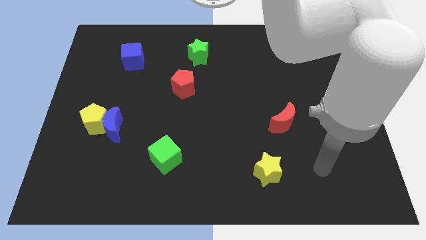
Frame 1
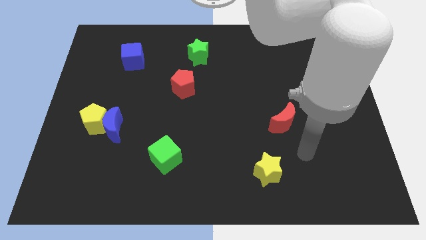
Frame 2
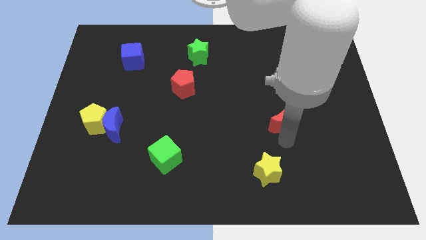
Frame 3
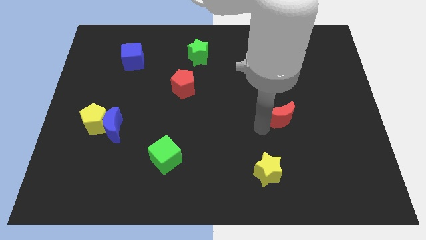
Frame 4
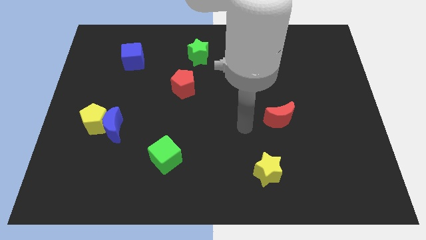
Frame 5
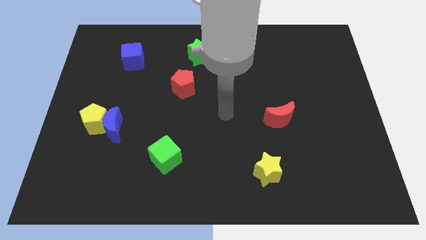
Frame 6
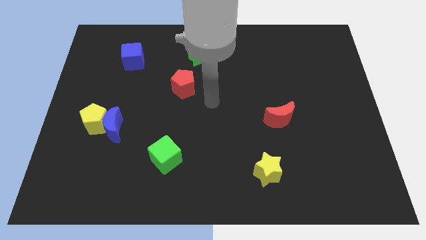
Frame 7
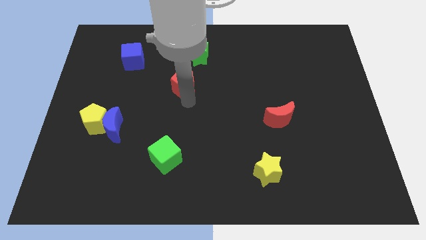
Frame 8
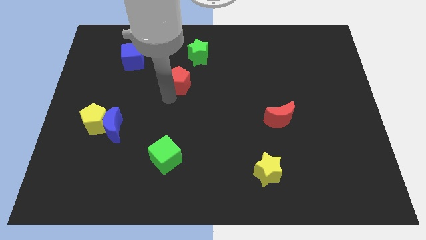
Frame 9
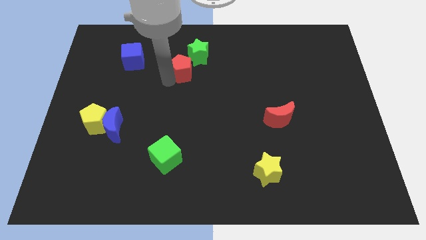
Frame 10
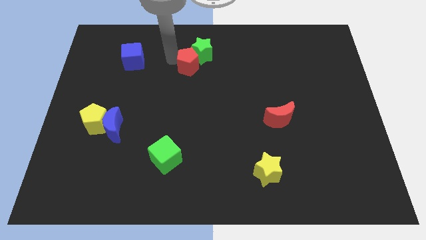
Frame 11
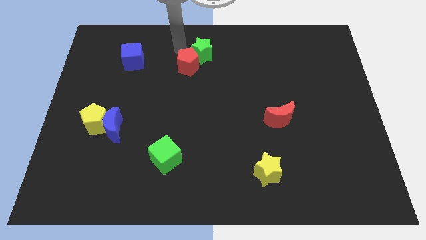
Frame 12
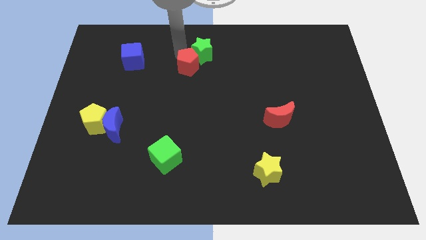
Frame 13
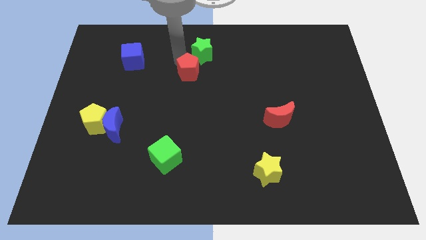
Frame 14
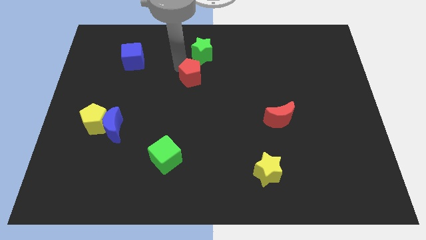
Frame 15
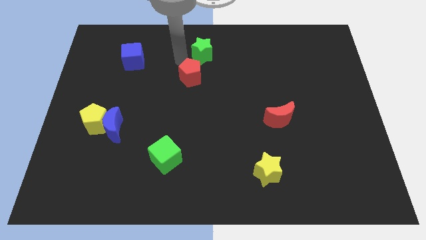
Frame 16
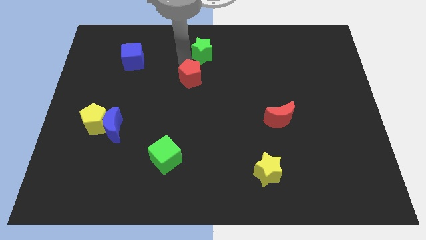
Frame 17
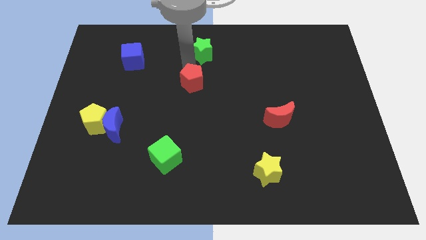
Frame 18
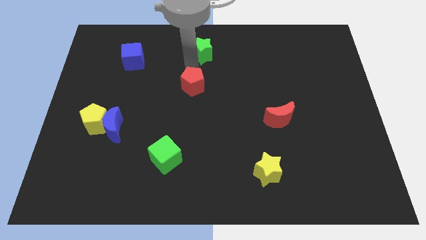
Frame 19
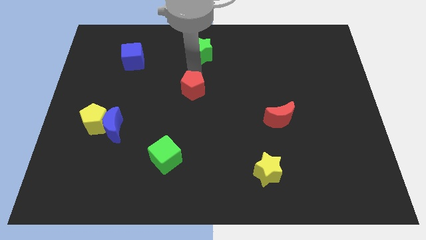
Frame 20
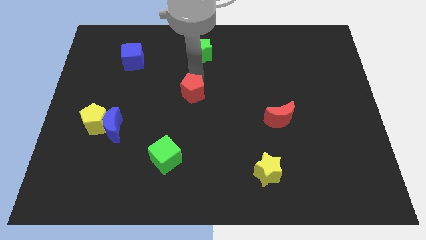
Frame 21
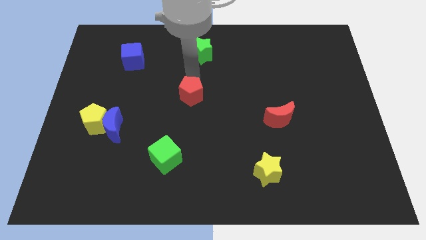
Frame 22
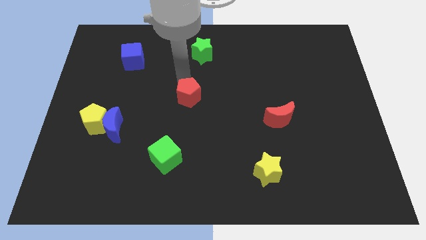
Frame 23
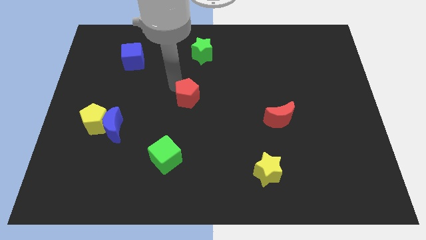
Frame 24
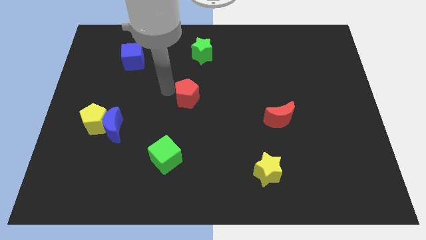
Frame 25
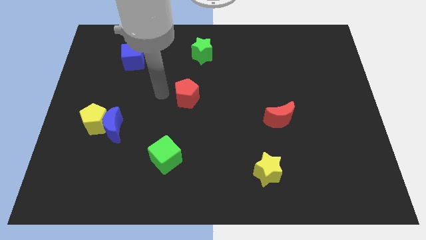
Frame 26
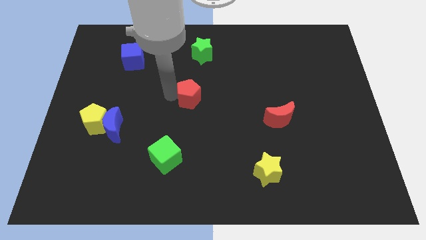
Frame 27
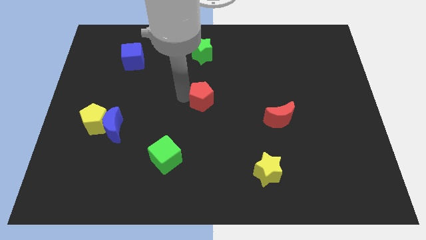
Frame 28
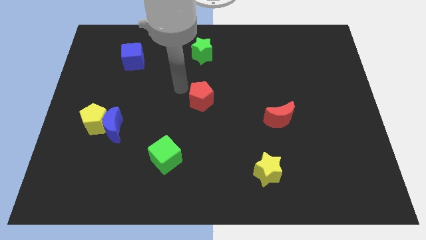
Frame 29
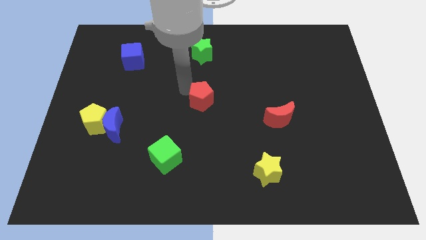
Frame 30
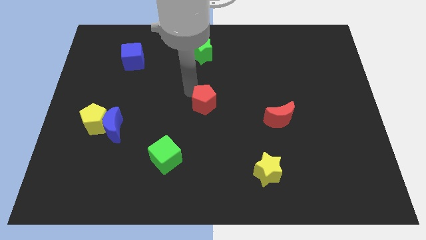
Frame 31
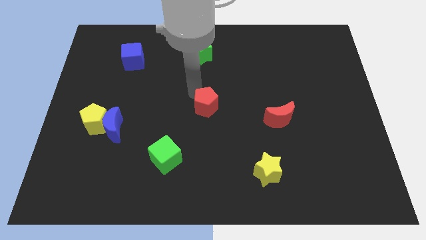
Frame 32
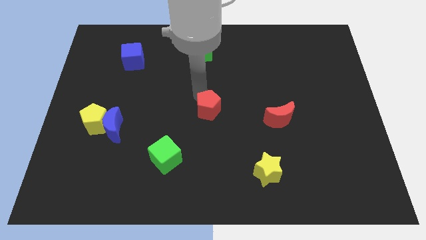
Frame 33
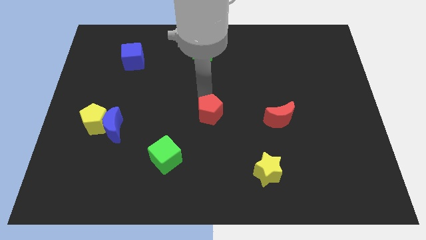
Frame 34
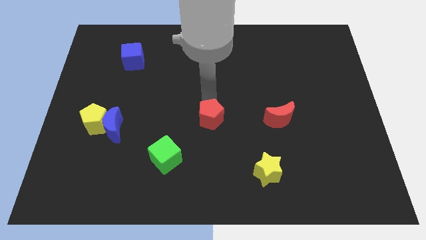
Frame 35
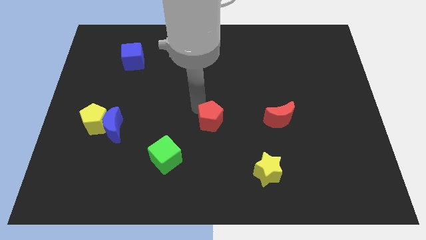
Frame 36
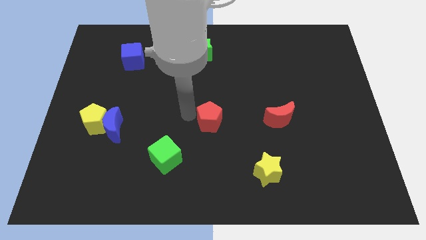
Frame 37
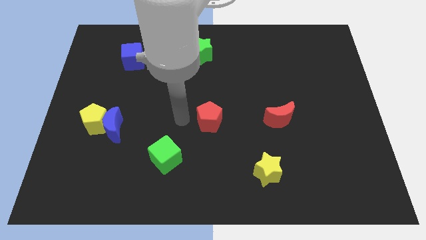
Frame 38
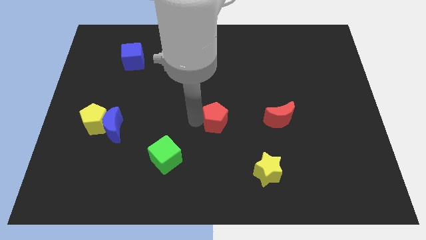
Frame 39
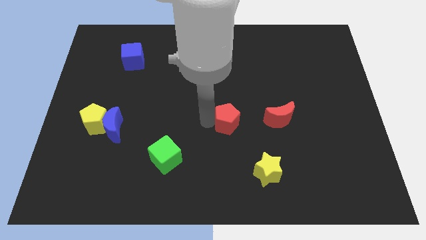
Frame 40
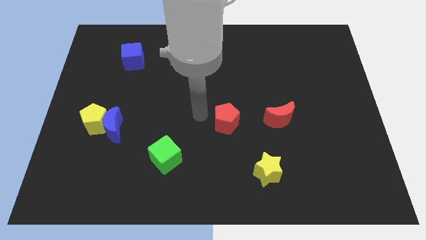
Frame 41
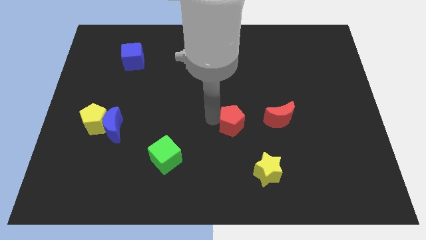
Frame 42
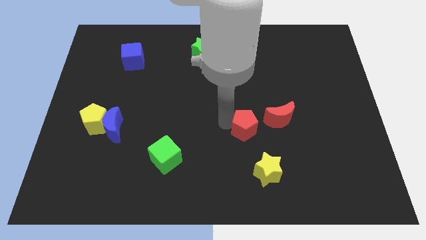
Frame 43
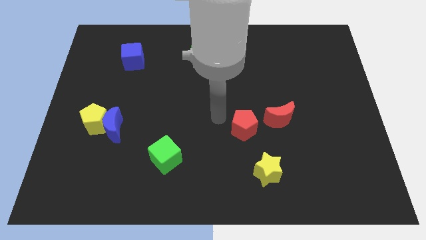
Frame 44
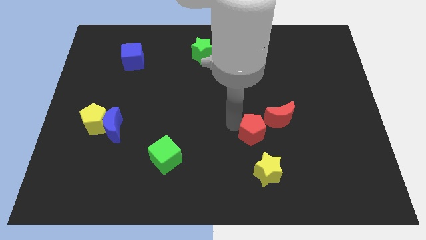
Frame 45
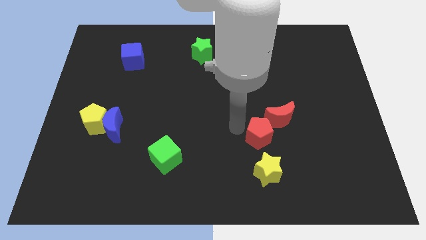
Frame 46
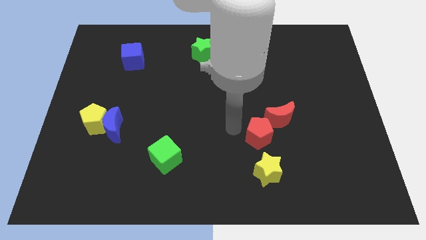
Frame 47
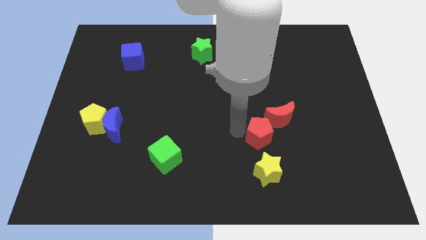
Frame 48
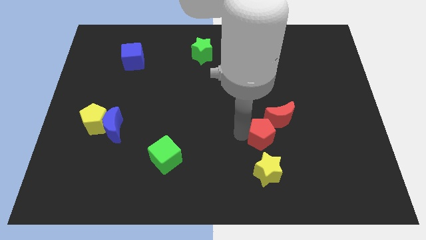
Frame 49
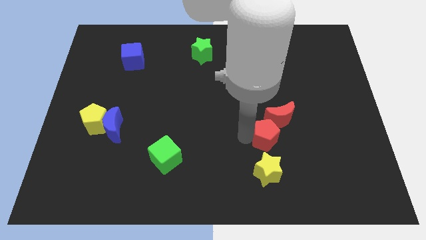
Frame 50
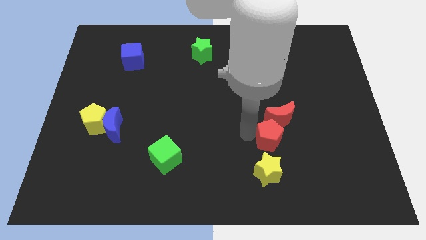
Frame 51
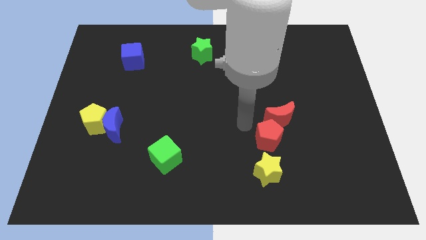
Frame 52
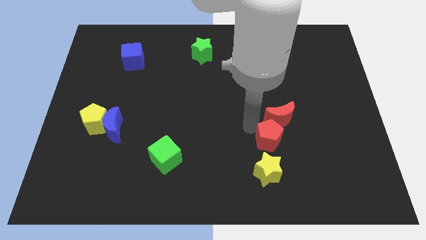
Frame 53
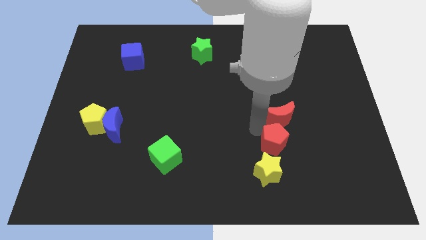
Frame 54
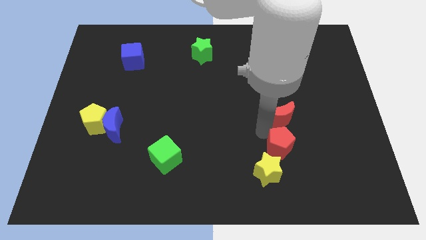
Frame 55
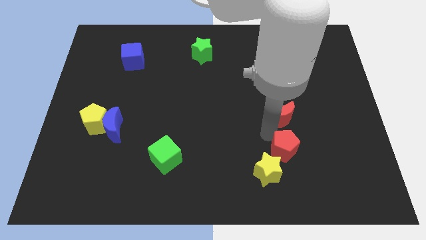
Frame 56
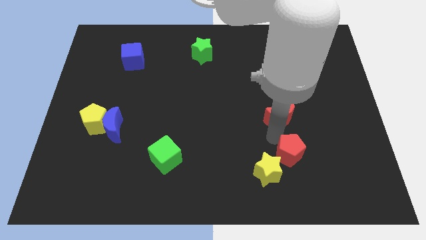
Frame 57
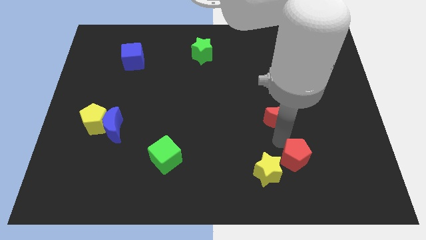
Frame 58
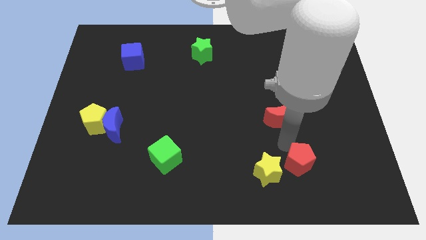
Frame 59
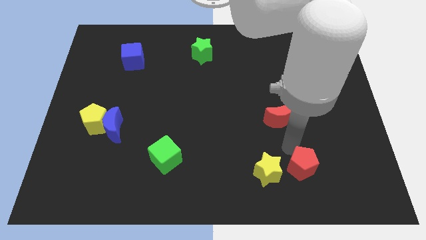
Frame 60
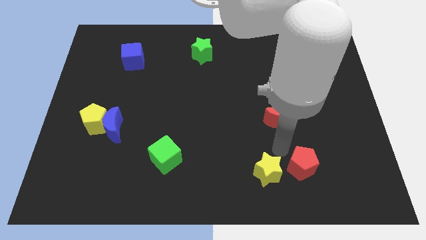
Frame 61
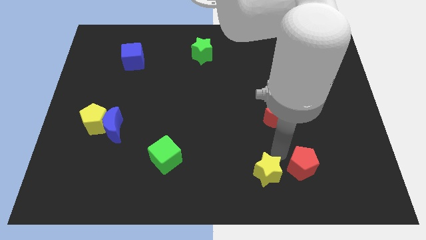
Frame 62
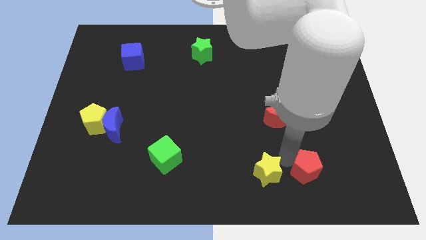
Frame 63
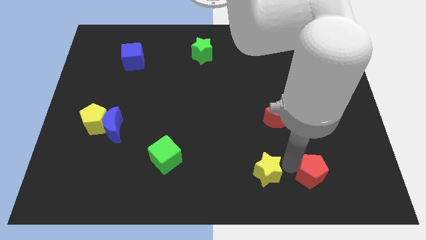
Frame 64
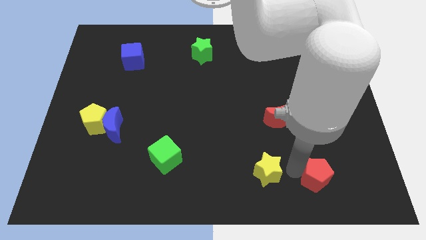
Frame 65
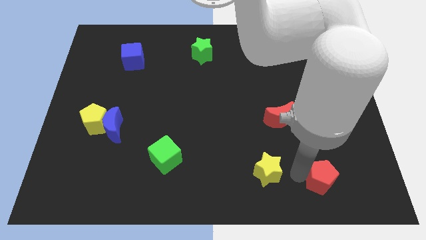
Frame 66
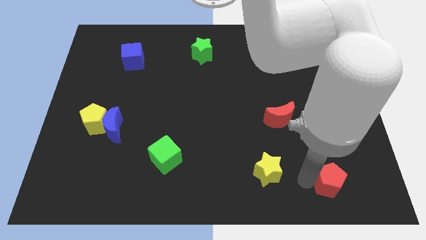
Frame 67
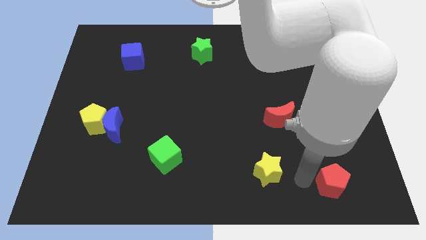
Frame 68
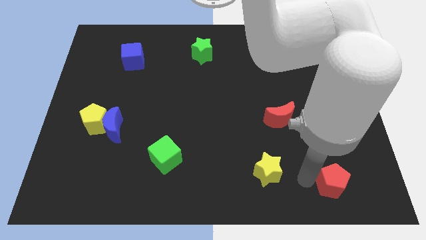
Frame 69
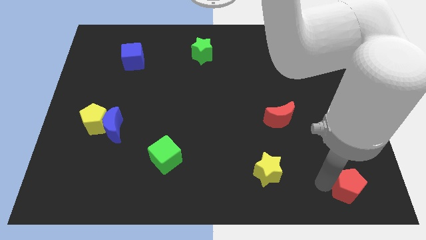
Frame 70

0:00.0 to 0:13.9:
push the red pentagon to the bottom right

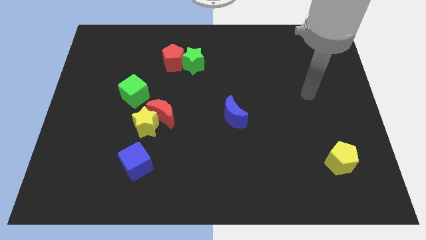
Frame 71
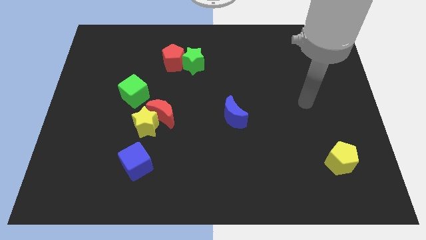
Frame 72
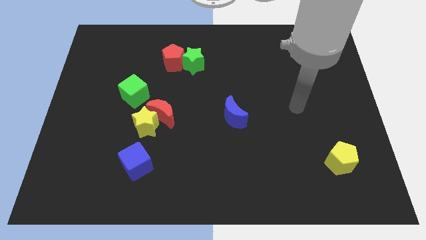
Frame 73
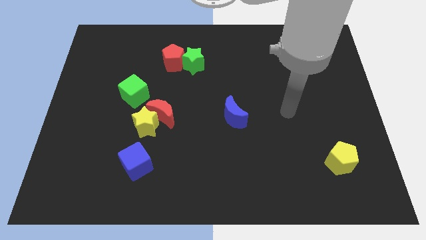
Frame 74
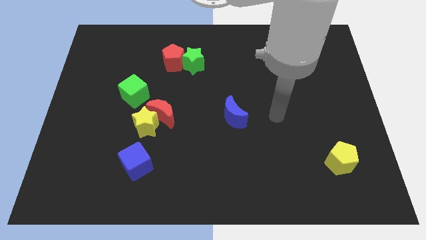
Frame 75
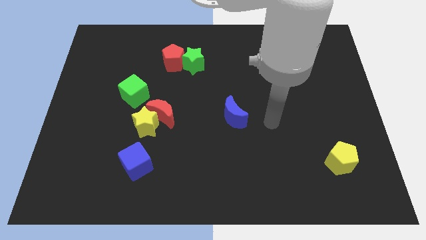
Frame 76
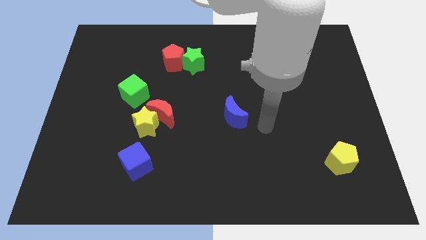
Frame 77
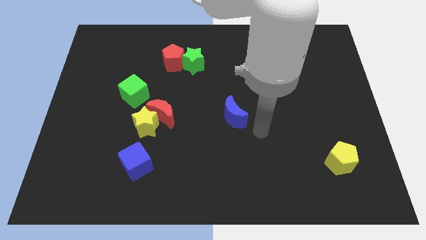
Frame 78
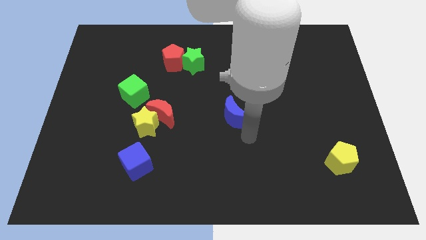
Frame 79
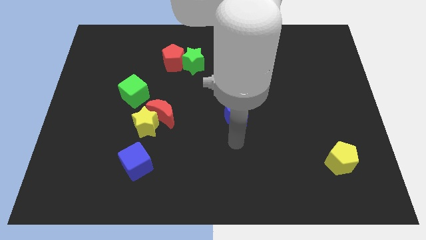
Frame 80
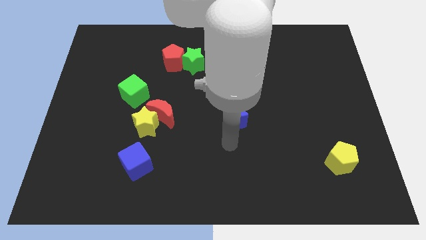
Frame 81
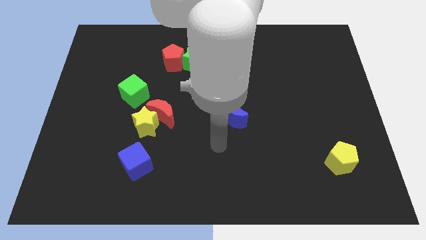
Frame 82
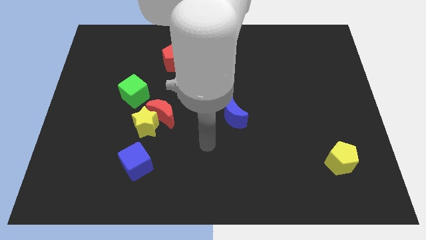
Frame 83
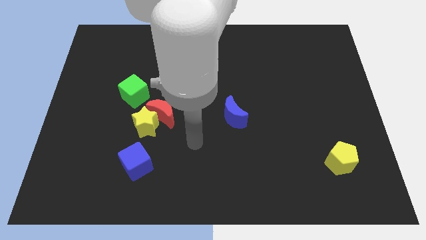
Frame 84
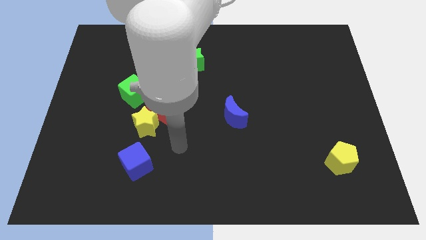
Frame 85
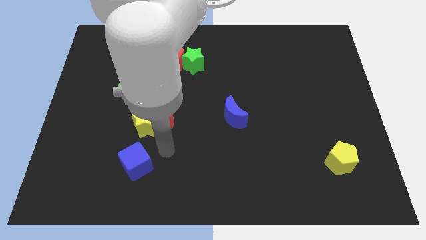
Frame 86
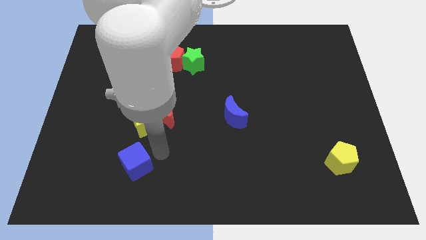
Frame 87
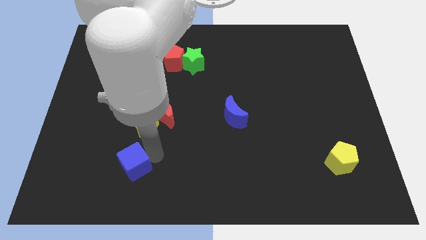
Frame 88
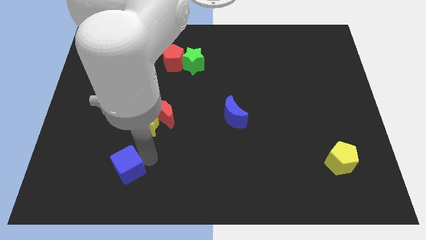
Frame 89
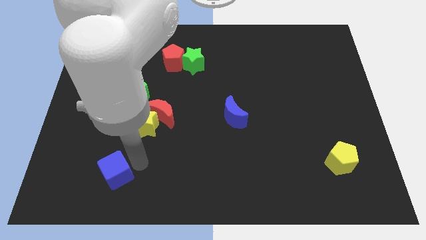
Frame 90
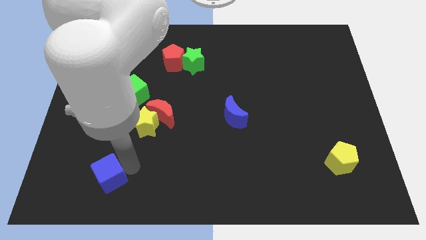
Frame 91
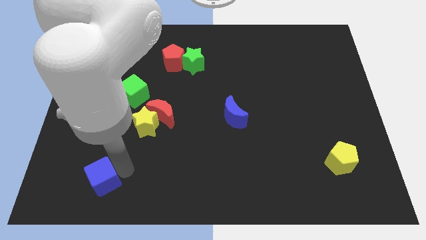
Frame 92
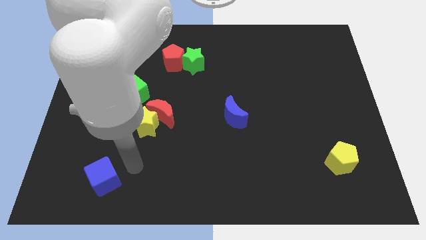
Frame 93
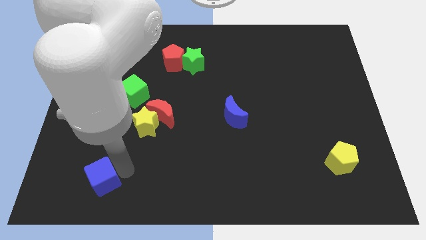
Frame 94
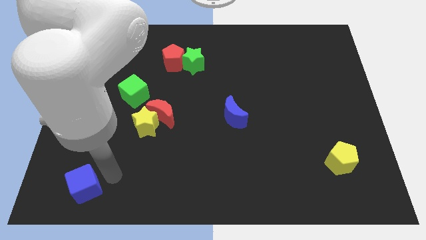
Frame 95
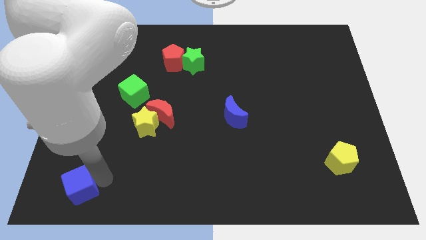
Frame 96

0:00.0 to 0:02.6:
put the blue cube to the lower left corner
